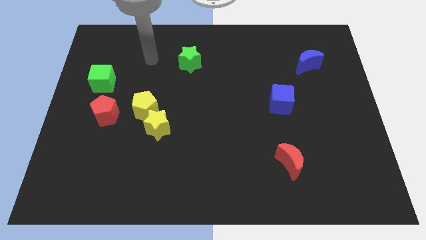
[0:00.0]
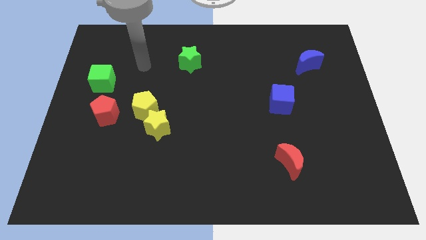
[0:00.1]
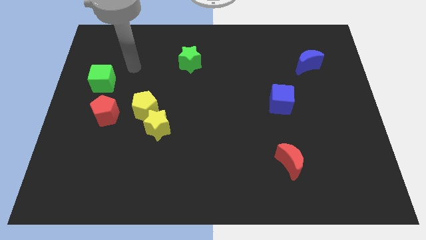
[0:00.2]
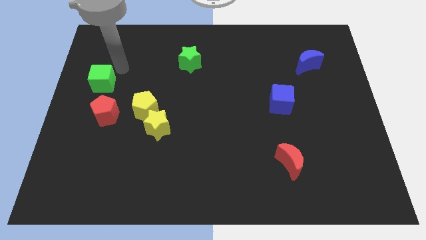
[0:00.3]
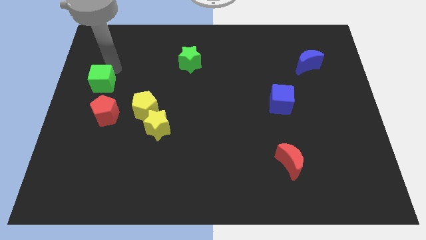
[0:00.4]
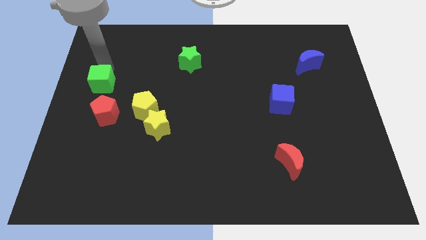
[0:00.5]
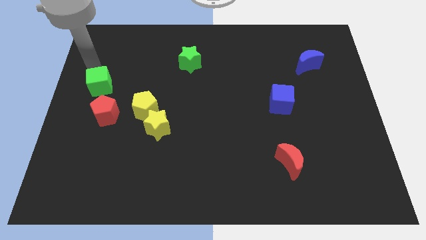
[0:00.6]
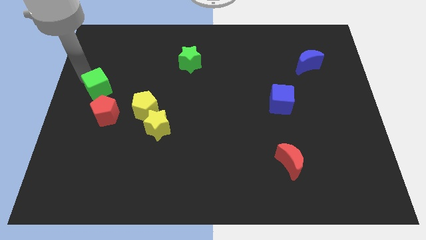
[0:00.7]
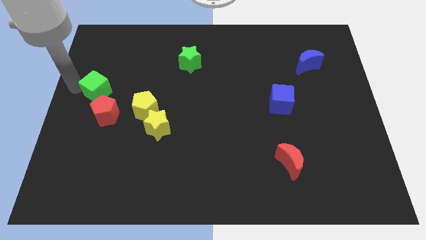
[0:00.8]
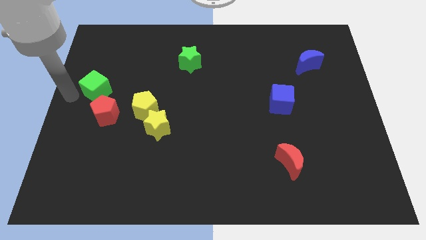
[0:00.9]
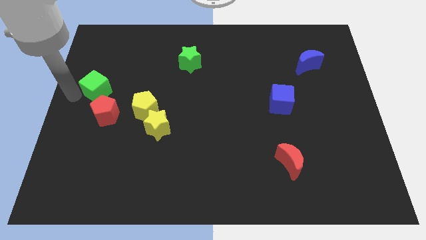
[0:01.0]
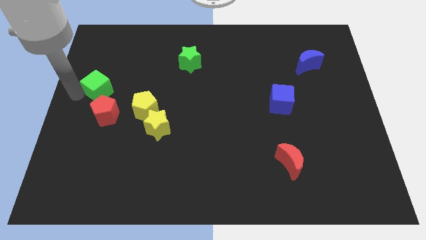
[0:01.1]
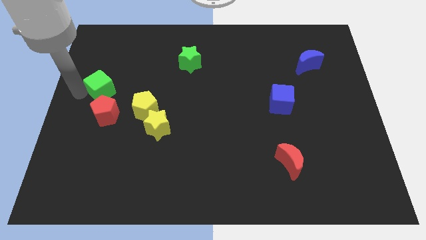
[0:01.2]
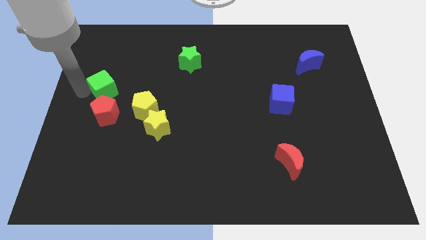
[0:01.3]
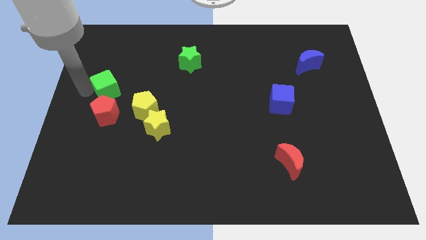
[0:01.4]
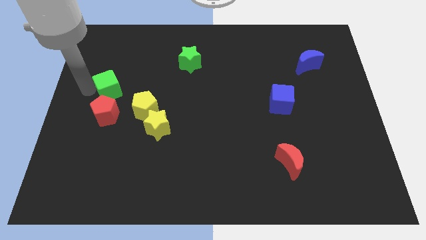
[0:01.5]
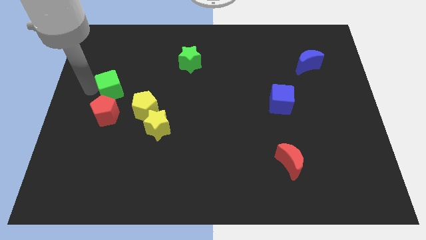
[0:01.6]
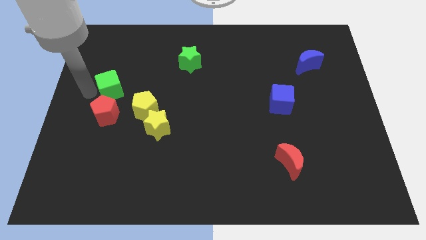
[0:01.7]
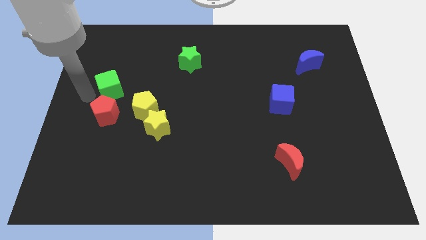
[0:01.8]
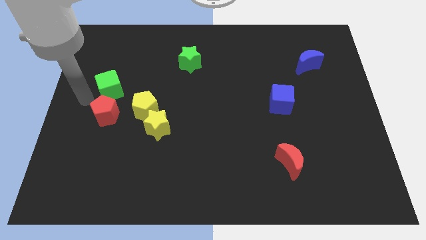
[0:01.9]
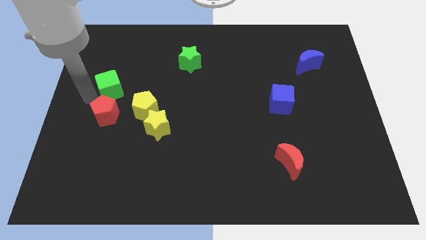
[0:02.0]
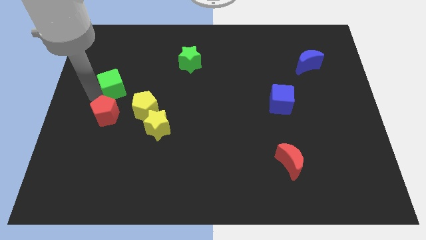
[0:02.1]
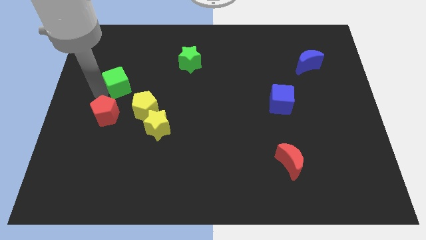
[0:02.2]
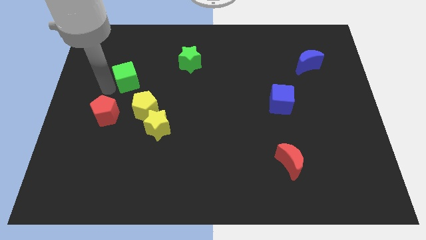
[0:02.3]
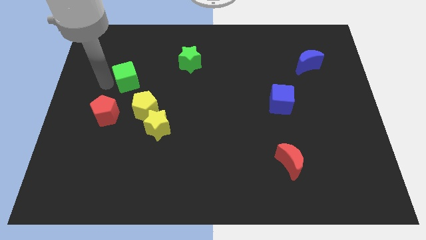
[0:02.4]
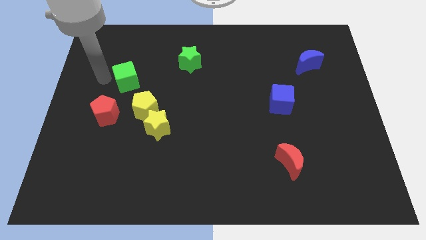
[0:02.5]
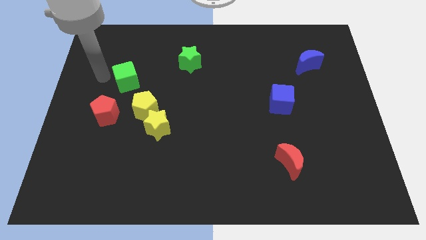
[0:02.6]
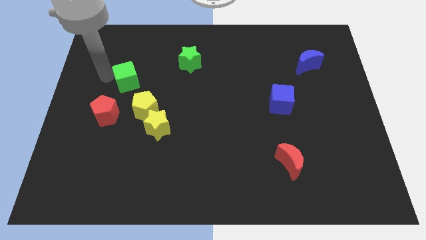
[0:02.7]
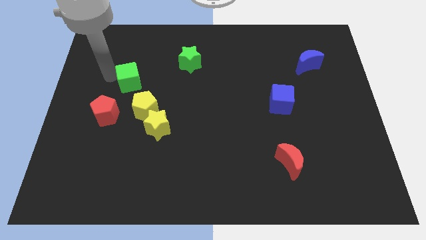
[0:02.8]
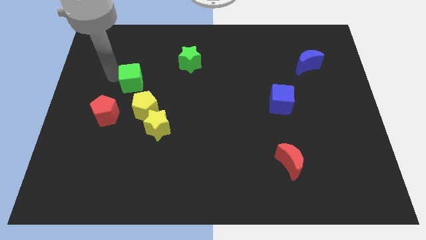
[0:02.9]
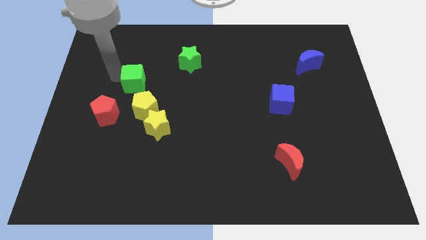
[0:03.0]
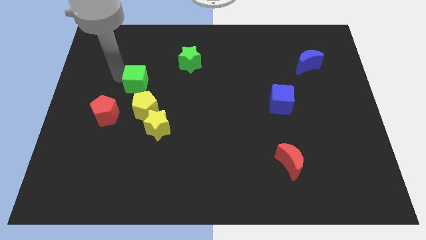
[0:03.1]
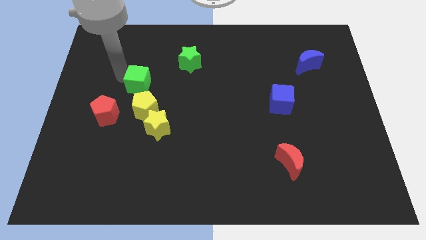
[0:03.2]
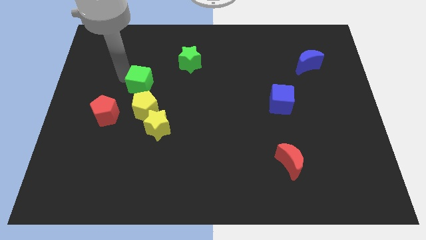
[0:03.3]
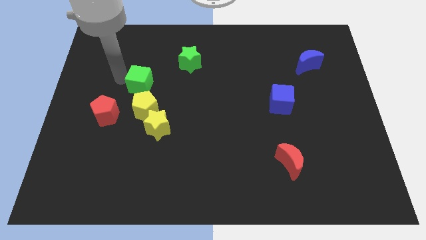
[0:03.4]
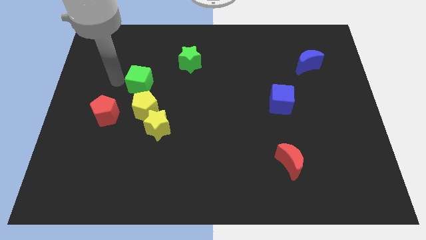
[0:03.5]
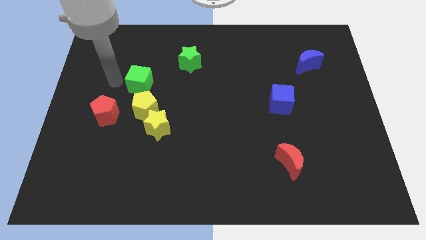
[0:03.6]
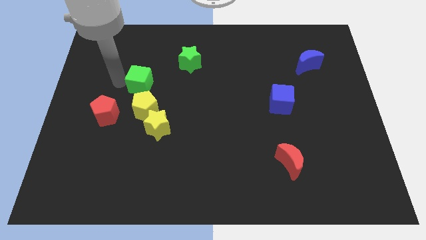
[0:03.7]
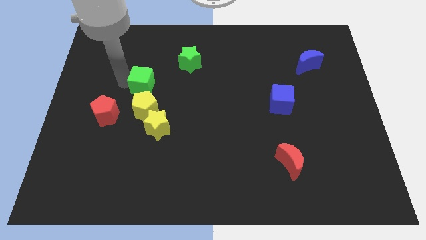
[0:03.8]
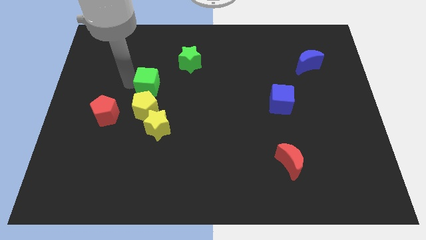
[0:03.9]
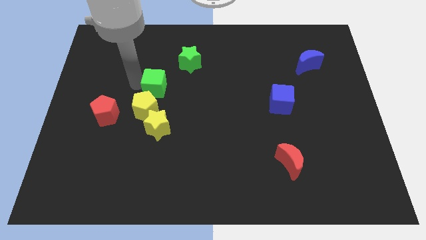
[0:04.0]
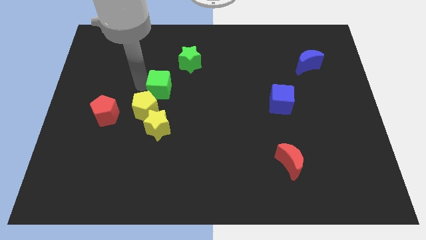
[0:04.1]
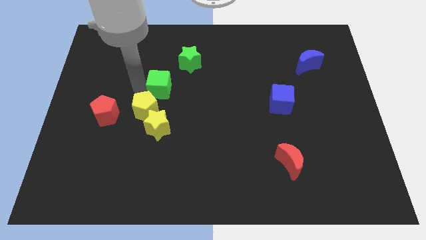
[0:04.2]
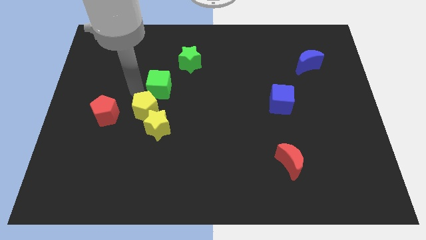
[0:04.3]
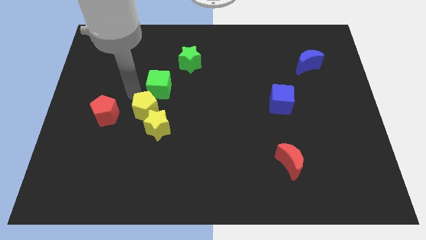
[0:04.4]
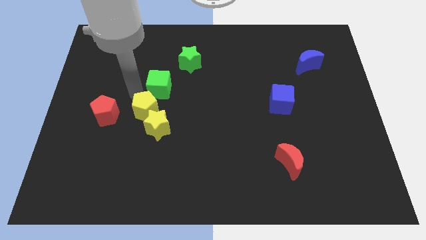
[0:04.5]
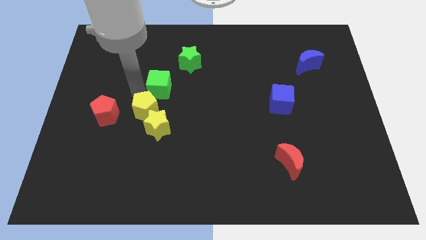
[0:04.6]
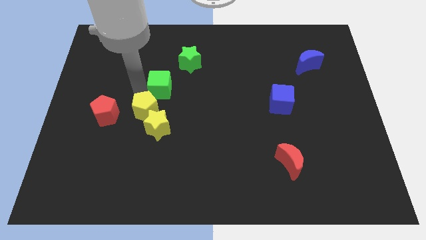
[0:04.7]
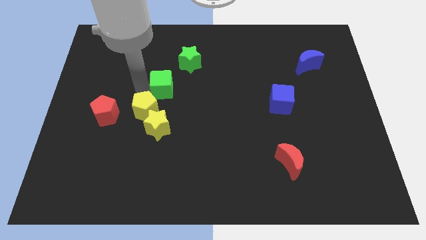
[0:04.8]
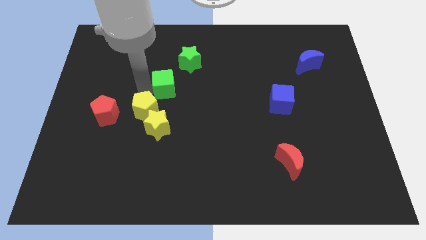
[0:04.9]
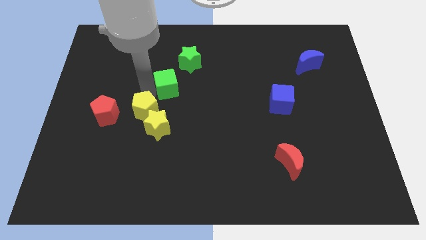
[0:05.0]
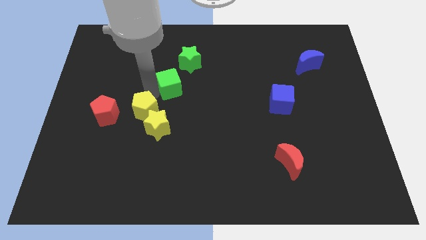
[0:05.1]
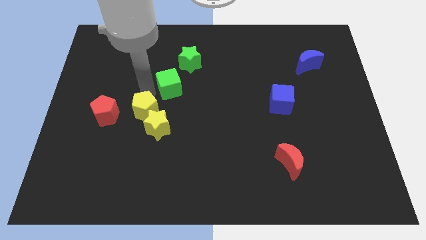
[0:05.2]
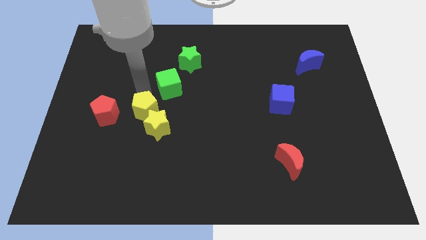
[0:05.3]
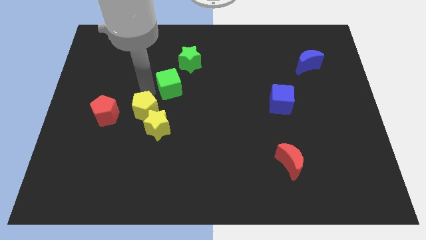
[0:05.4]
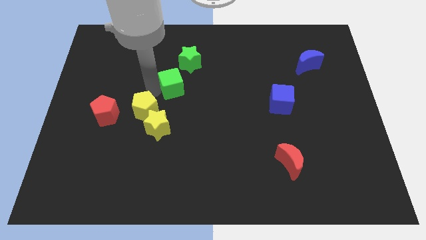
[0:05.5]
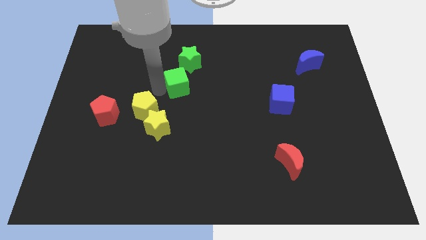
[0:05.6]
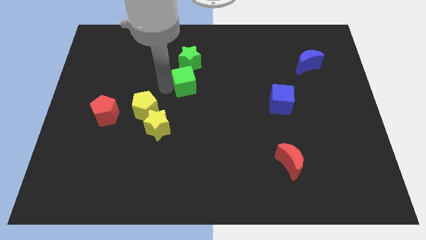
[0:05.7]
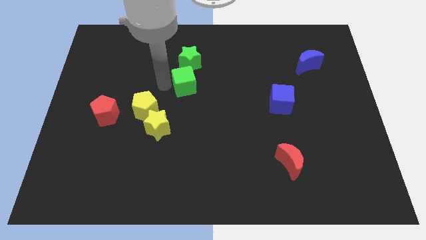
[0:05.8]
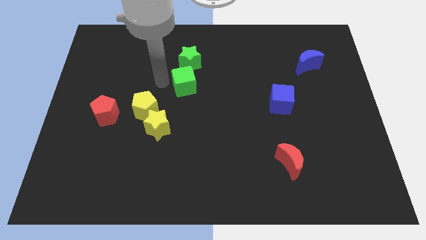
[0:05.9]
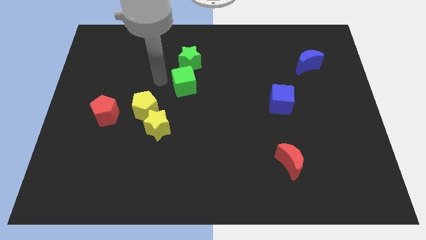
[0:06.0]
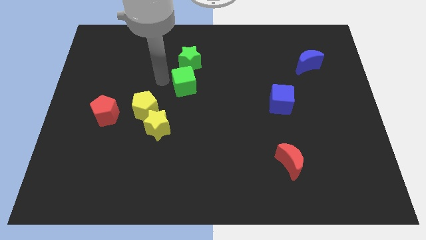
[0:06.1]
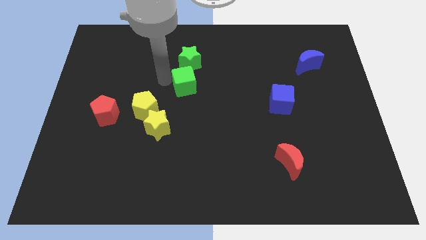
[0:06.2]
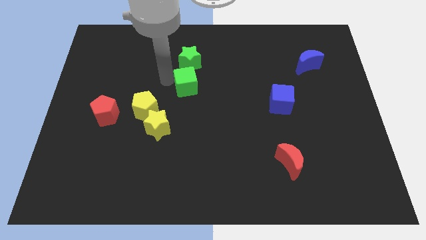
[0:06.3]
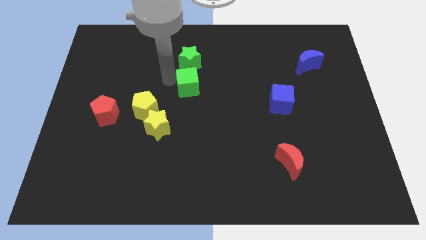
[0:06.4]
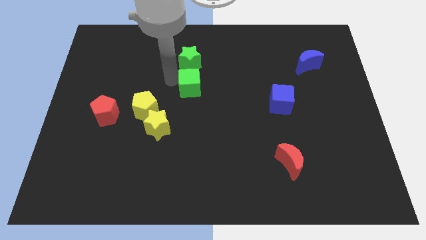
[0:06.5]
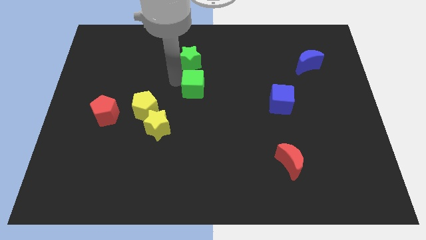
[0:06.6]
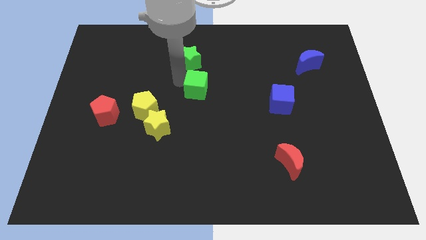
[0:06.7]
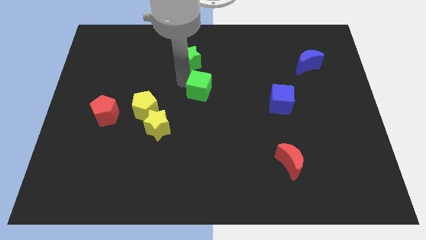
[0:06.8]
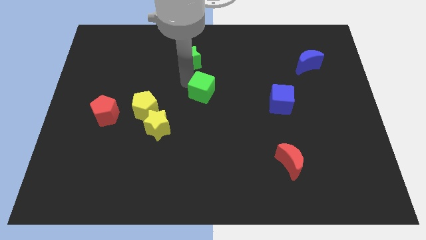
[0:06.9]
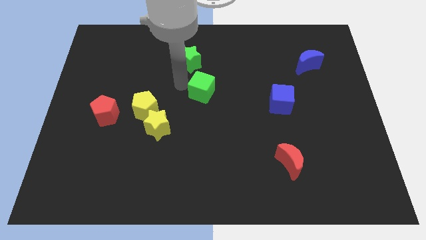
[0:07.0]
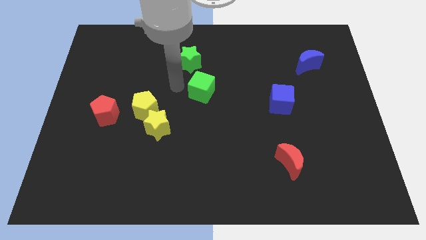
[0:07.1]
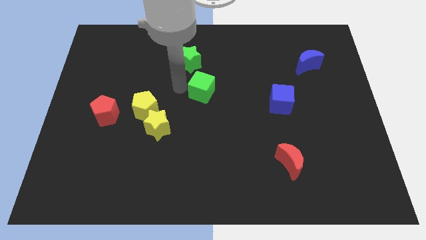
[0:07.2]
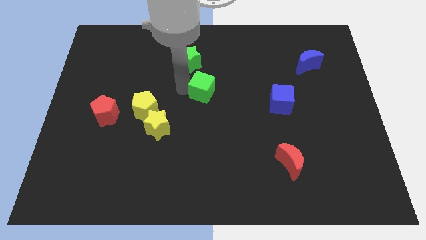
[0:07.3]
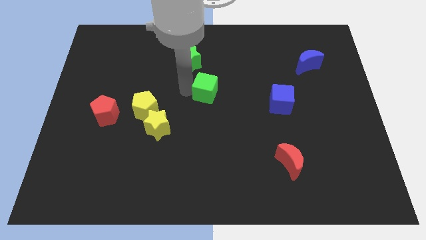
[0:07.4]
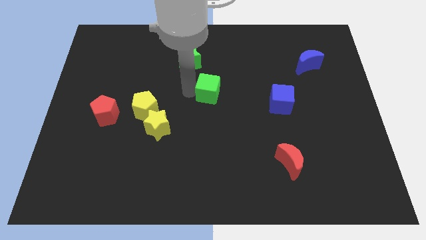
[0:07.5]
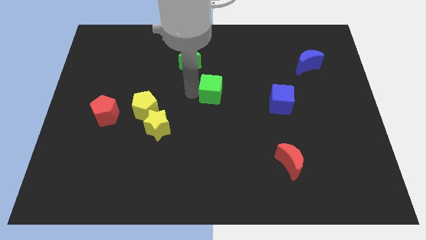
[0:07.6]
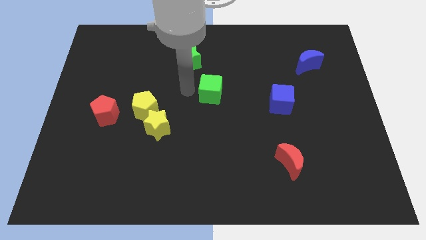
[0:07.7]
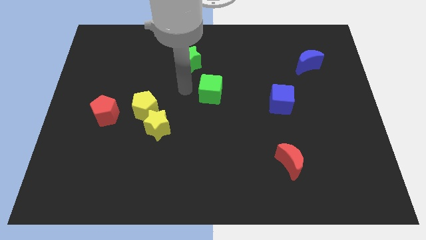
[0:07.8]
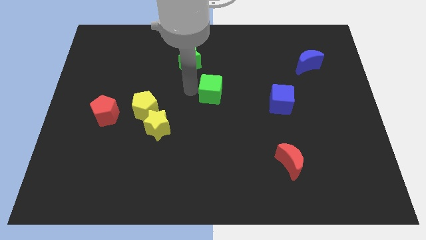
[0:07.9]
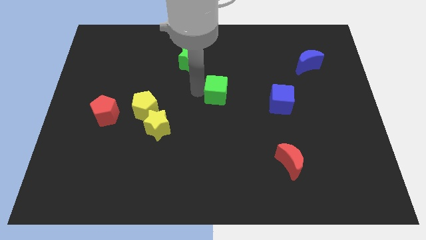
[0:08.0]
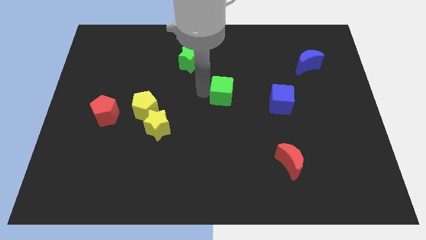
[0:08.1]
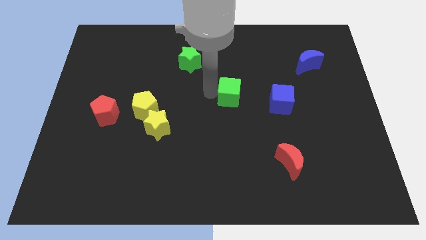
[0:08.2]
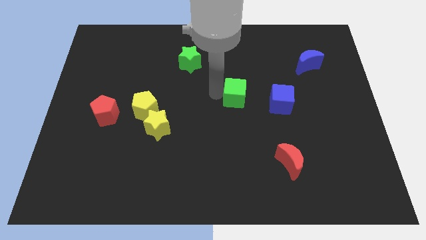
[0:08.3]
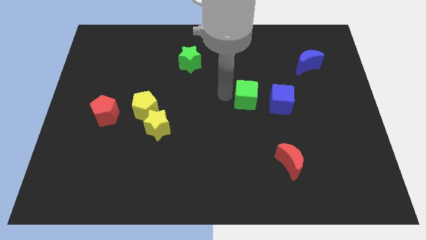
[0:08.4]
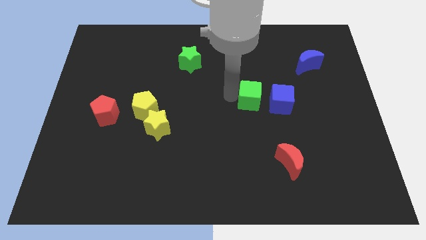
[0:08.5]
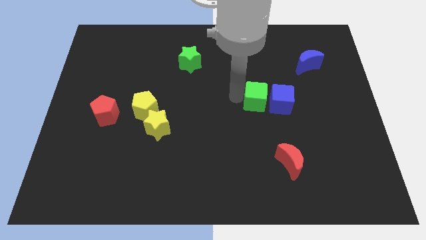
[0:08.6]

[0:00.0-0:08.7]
move the green cube next to the blue cube
